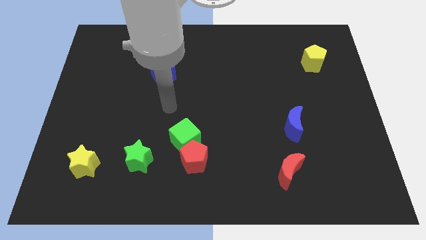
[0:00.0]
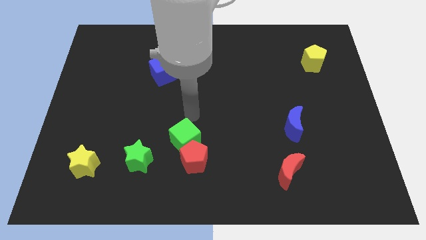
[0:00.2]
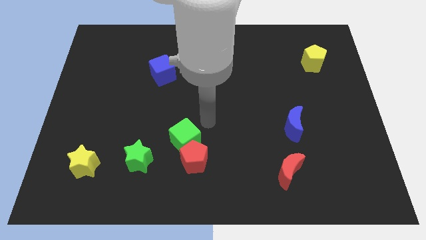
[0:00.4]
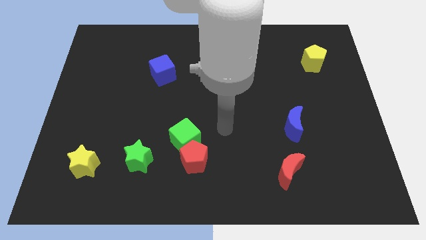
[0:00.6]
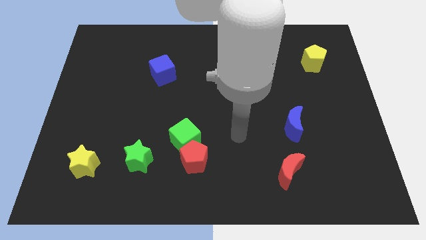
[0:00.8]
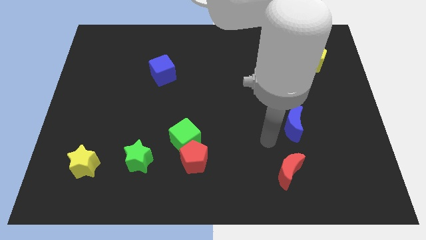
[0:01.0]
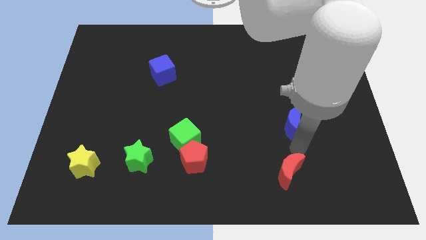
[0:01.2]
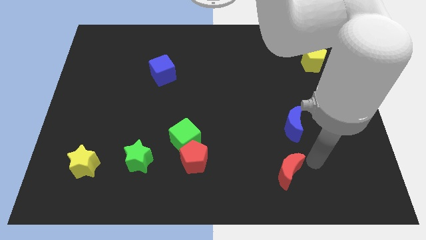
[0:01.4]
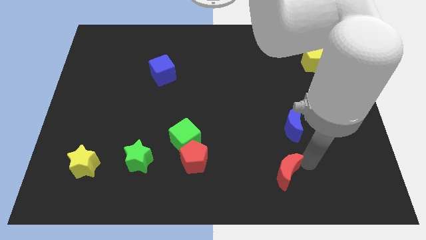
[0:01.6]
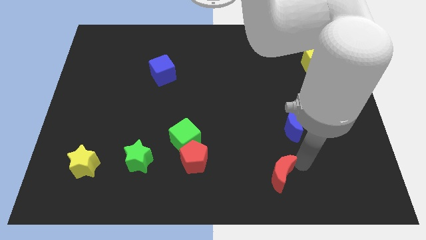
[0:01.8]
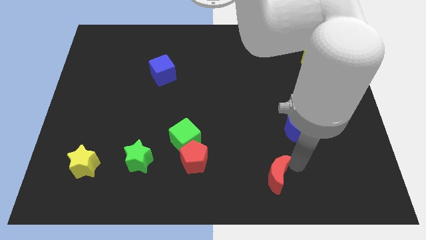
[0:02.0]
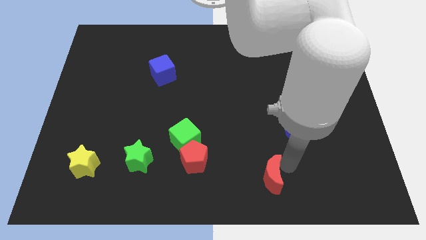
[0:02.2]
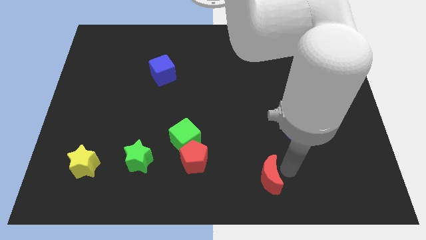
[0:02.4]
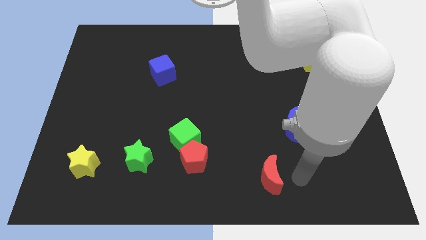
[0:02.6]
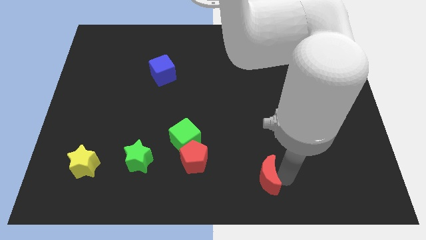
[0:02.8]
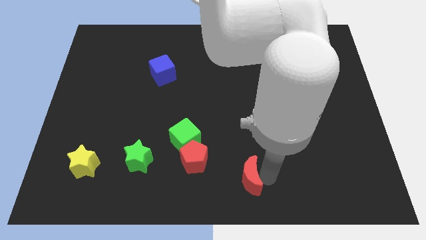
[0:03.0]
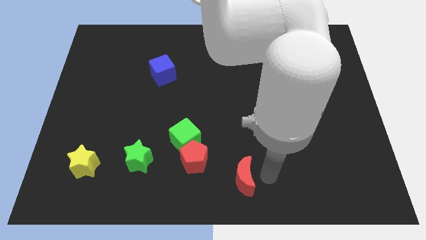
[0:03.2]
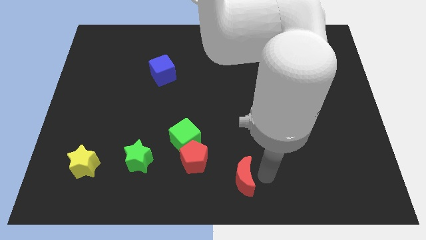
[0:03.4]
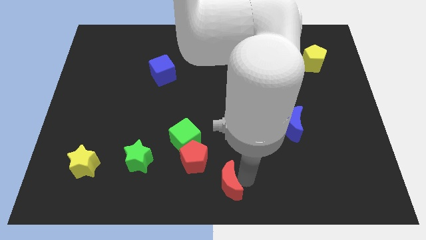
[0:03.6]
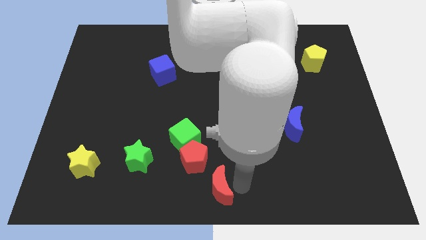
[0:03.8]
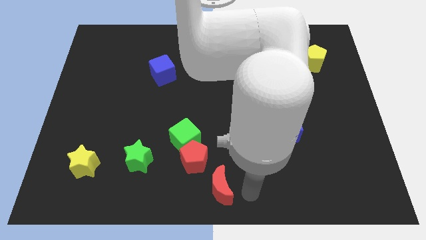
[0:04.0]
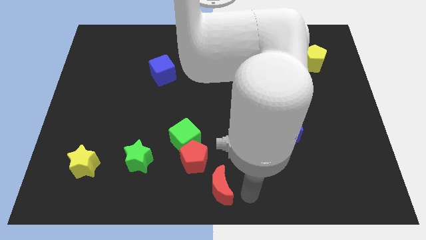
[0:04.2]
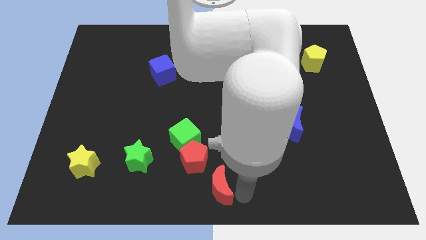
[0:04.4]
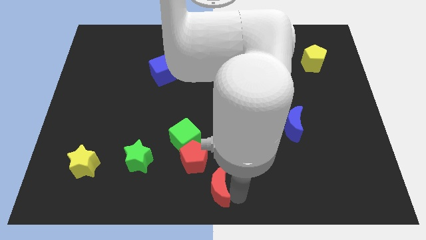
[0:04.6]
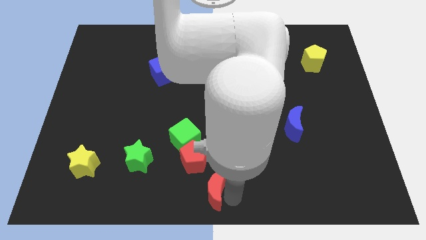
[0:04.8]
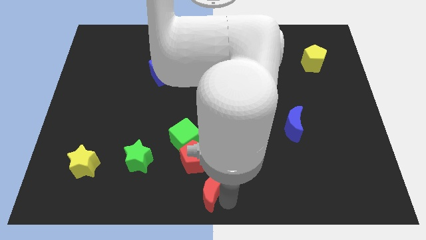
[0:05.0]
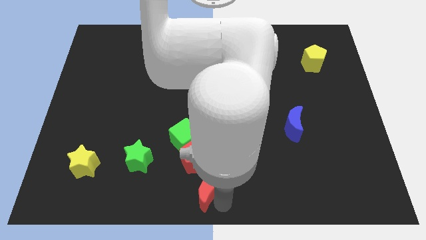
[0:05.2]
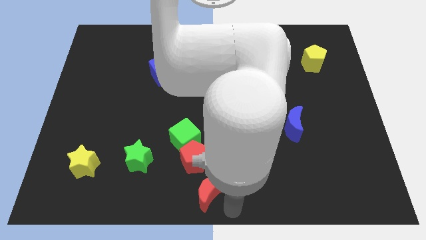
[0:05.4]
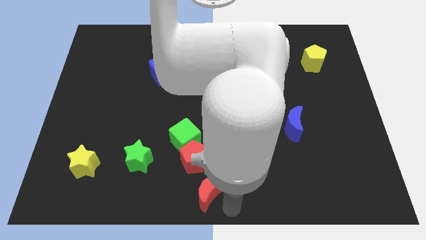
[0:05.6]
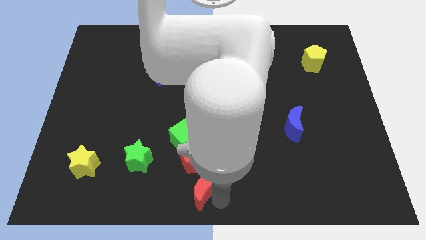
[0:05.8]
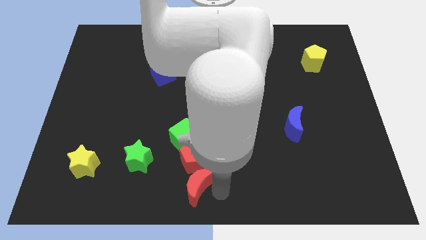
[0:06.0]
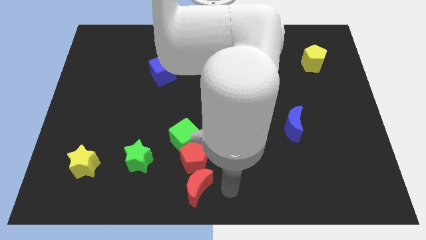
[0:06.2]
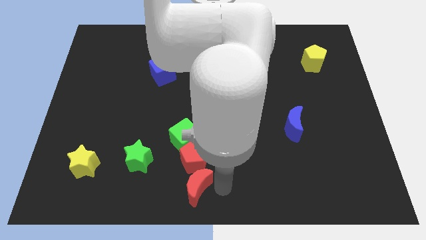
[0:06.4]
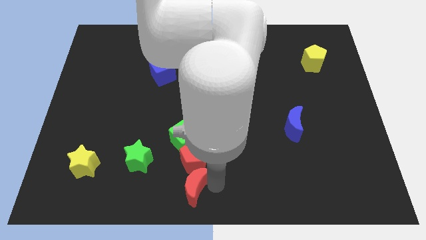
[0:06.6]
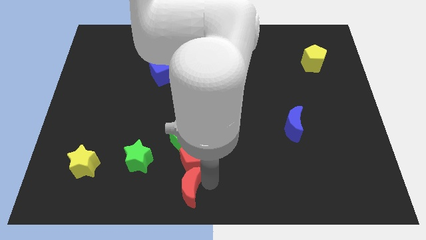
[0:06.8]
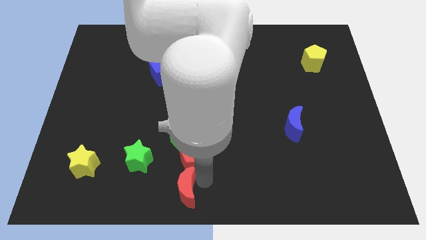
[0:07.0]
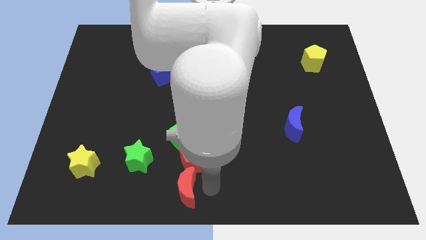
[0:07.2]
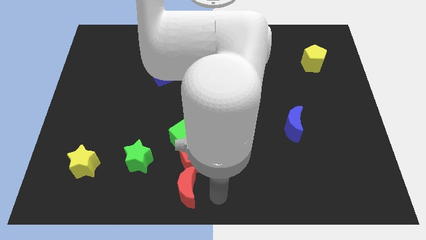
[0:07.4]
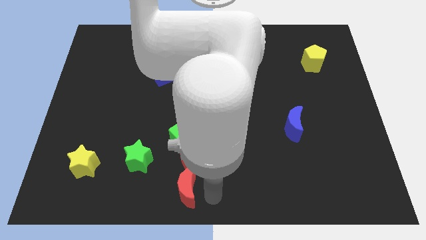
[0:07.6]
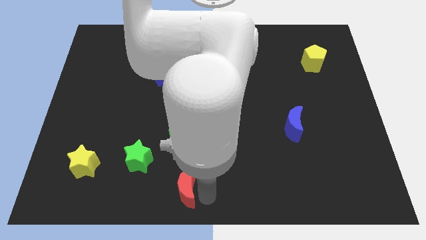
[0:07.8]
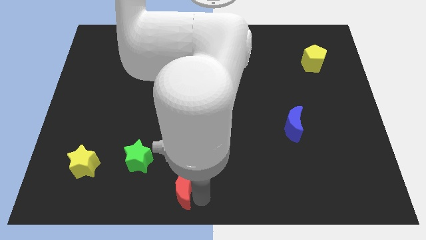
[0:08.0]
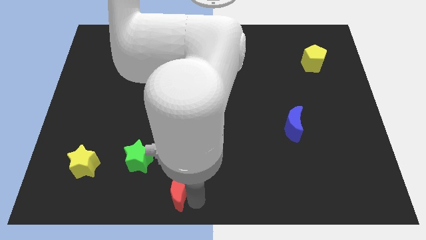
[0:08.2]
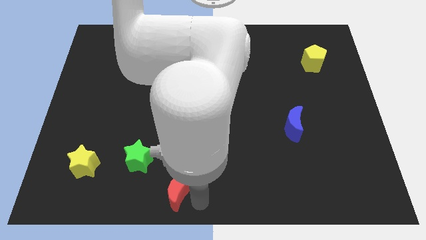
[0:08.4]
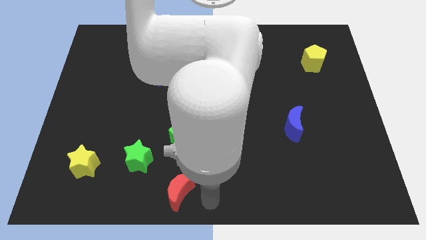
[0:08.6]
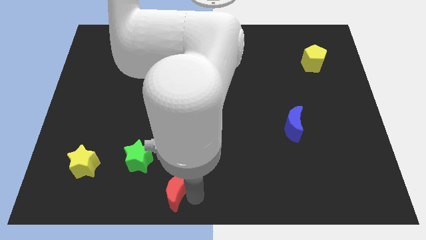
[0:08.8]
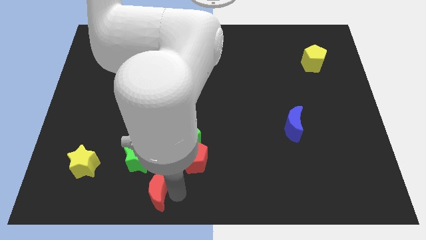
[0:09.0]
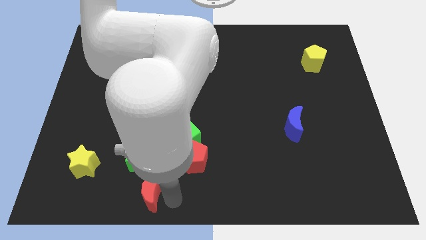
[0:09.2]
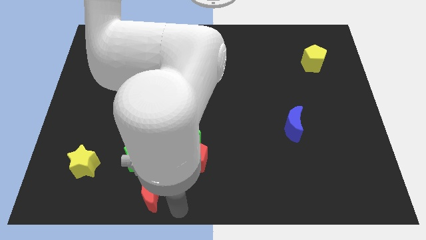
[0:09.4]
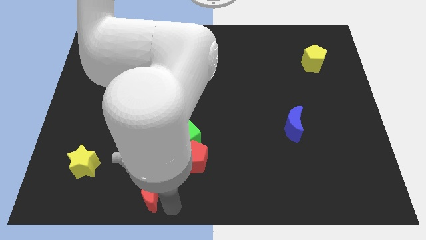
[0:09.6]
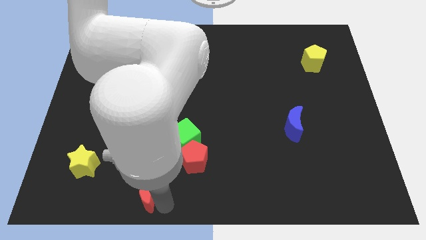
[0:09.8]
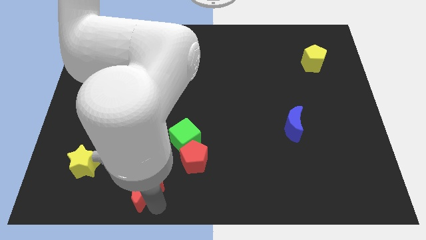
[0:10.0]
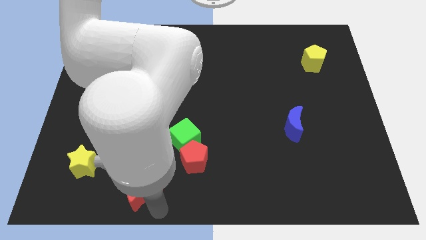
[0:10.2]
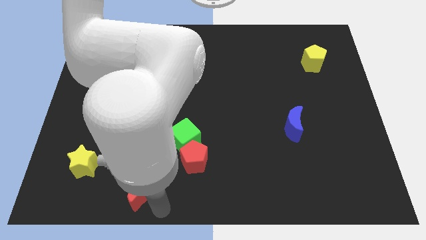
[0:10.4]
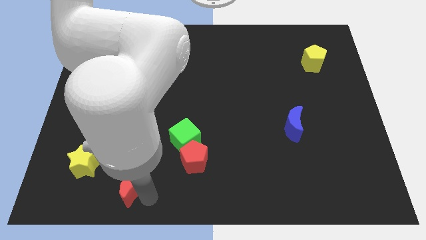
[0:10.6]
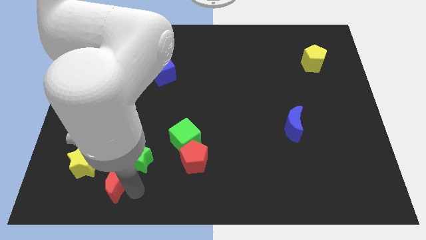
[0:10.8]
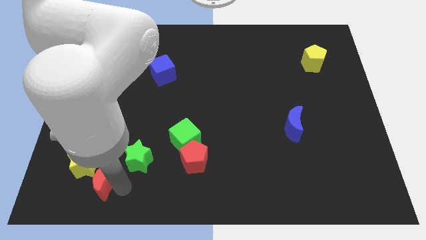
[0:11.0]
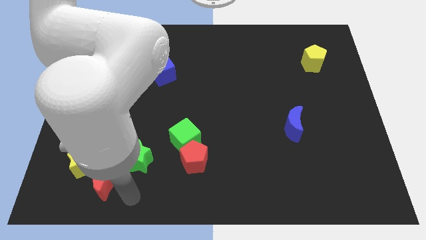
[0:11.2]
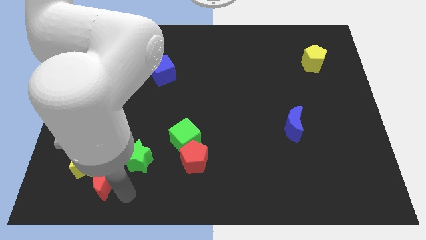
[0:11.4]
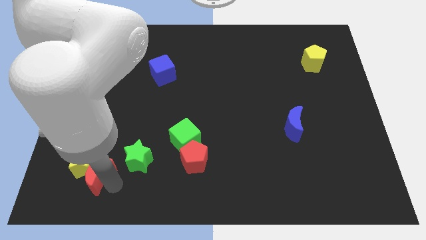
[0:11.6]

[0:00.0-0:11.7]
slide the red moon towards the yellow star

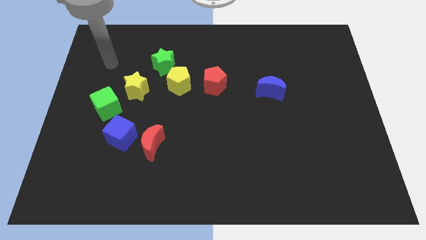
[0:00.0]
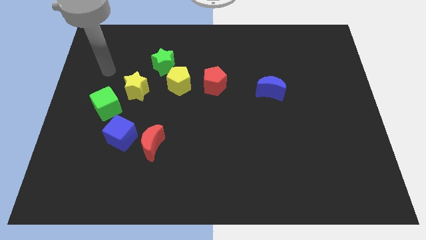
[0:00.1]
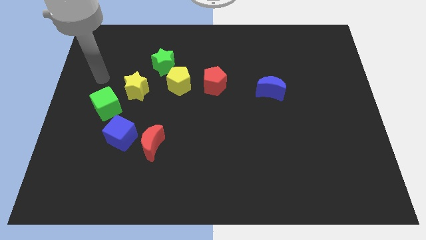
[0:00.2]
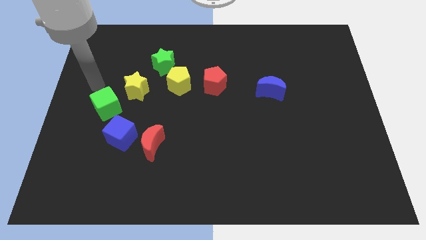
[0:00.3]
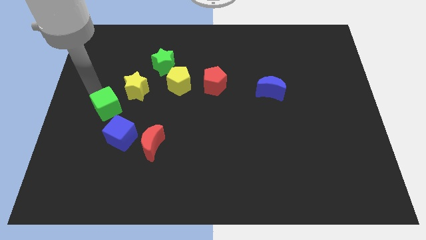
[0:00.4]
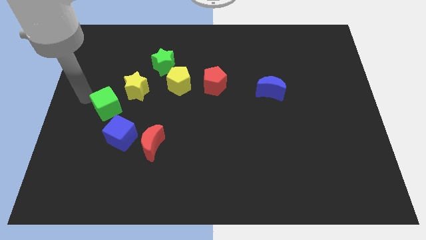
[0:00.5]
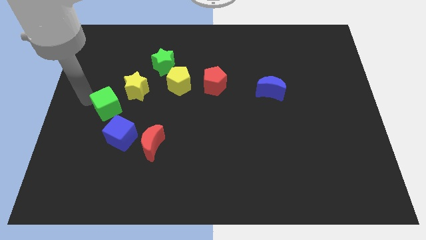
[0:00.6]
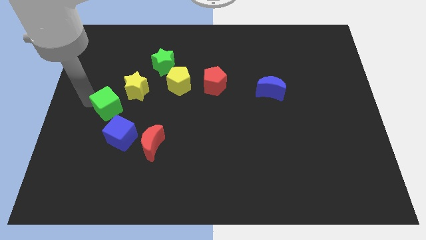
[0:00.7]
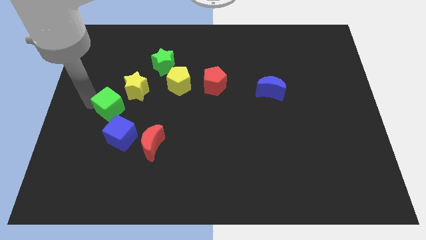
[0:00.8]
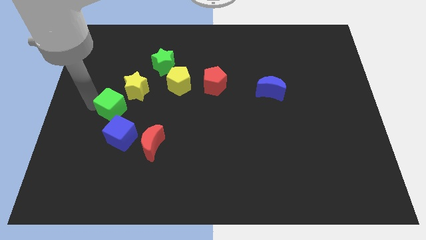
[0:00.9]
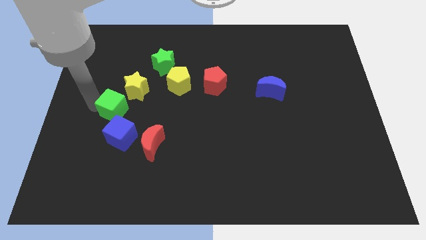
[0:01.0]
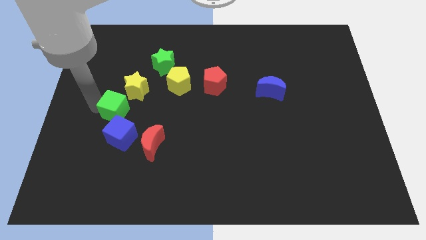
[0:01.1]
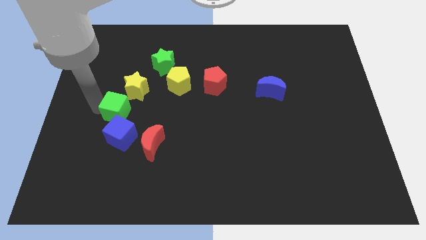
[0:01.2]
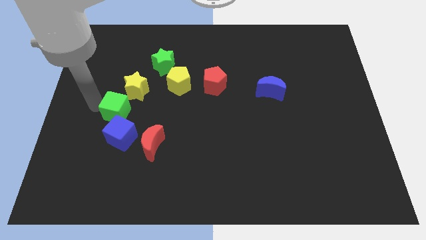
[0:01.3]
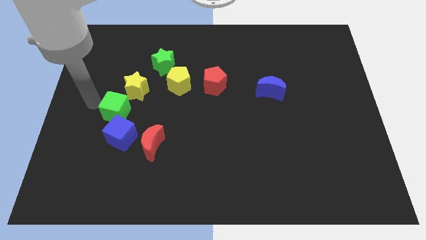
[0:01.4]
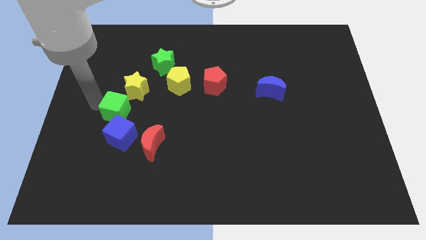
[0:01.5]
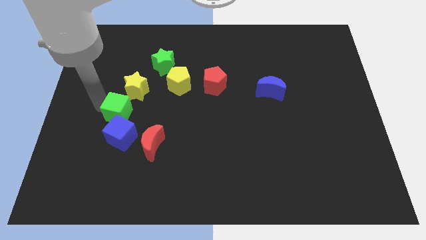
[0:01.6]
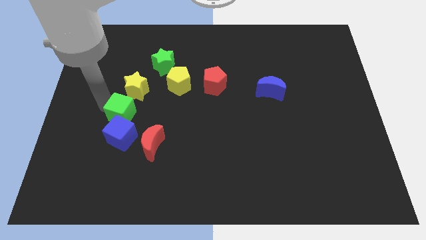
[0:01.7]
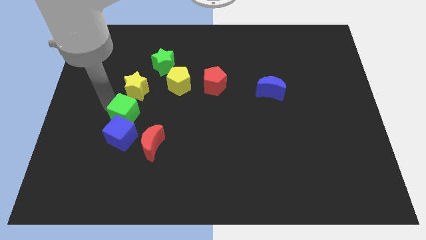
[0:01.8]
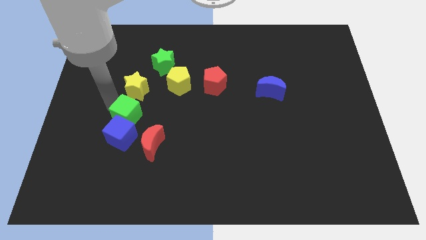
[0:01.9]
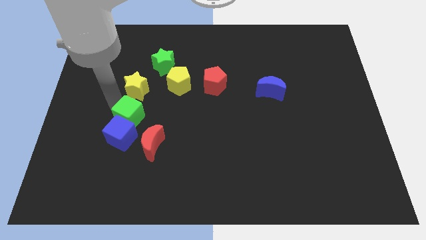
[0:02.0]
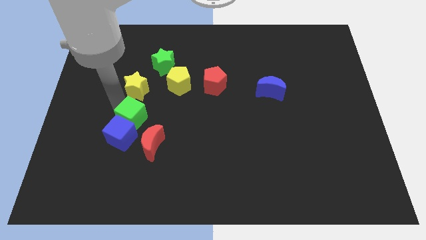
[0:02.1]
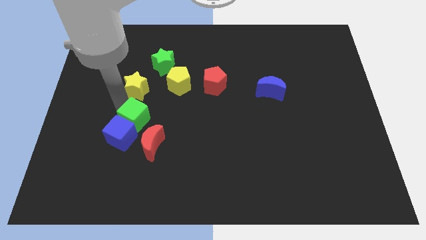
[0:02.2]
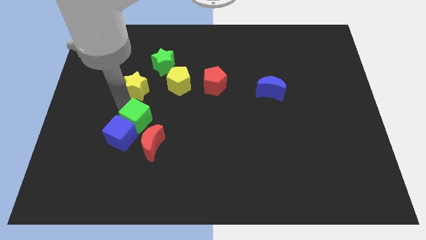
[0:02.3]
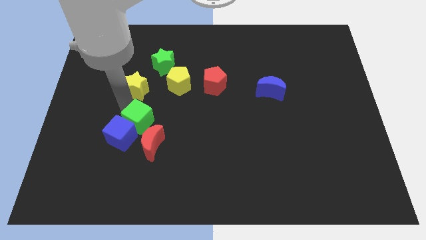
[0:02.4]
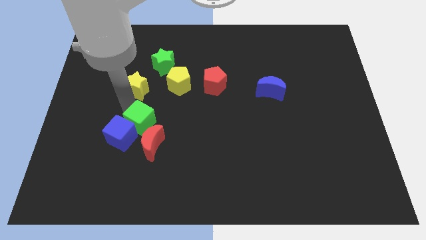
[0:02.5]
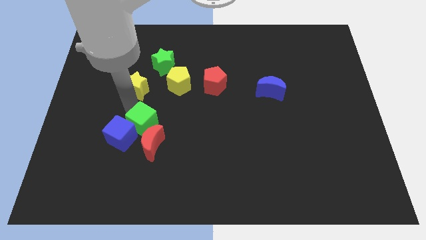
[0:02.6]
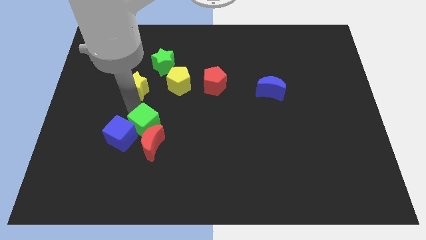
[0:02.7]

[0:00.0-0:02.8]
push the green cube next to the red moon
